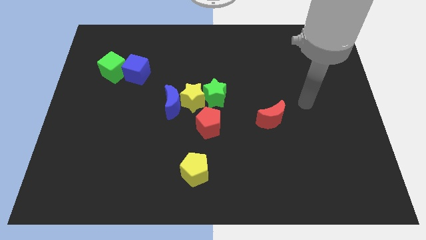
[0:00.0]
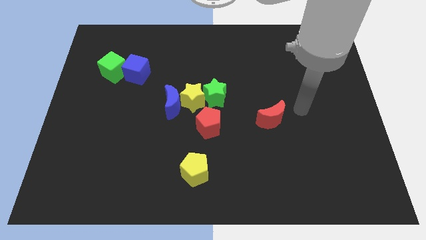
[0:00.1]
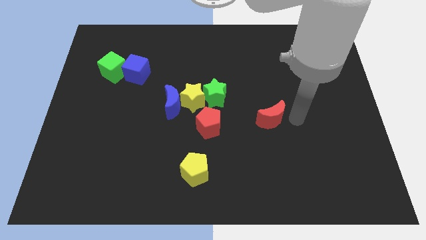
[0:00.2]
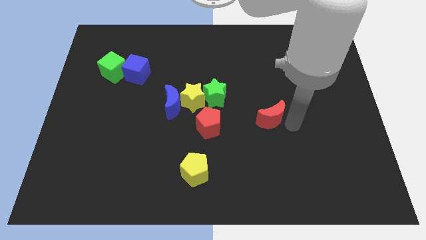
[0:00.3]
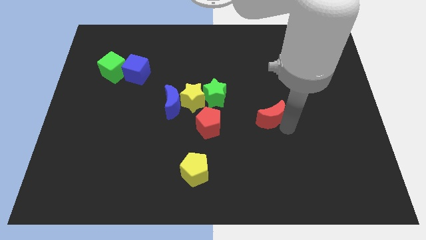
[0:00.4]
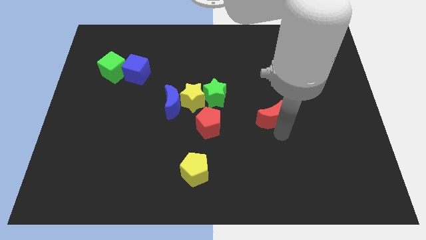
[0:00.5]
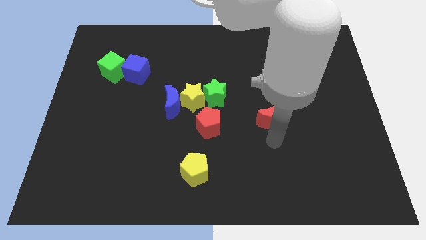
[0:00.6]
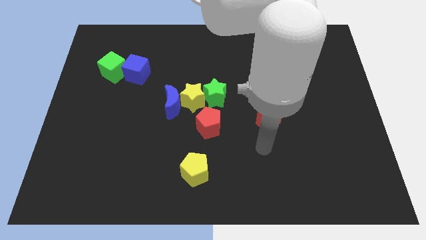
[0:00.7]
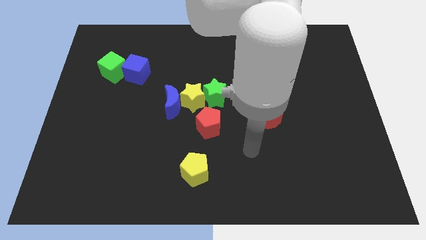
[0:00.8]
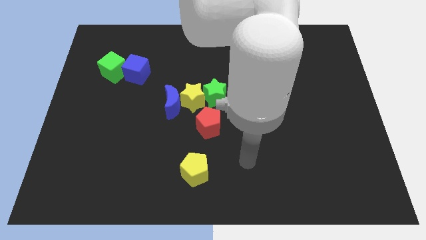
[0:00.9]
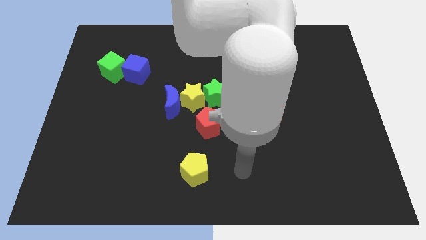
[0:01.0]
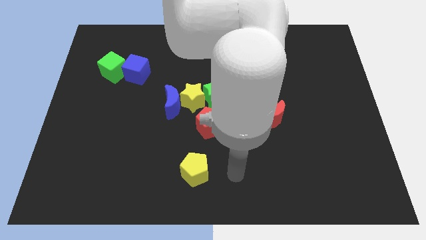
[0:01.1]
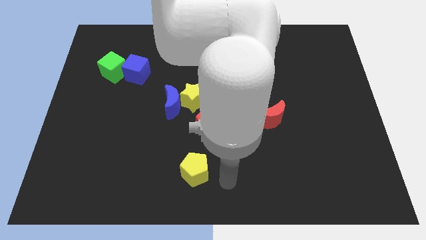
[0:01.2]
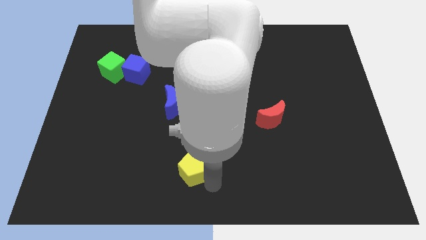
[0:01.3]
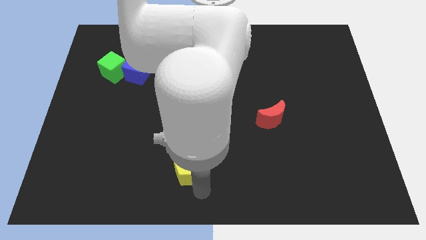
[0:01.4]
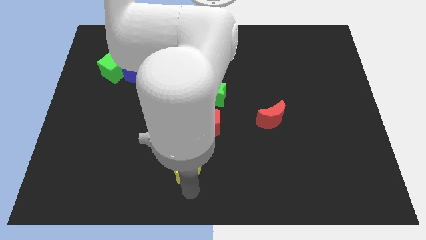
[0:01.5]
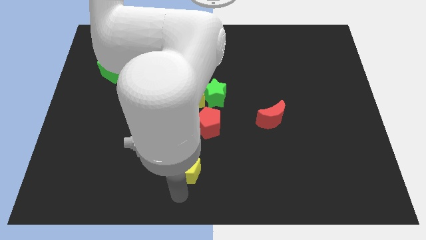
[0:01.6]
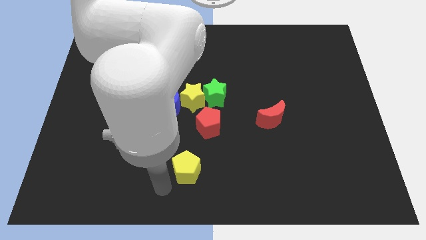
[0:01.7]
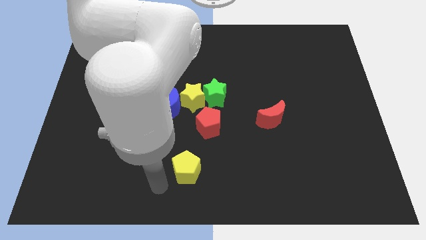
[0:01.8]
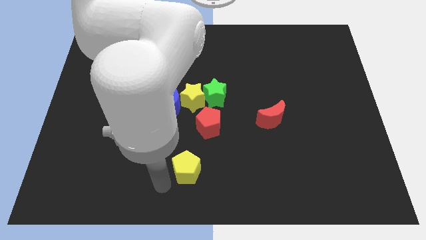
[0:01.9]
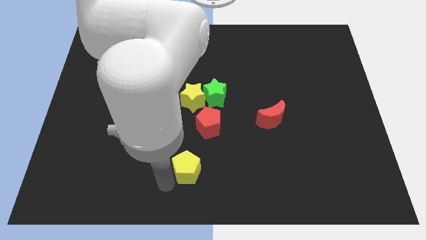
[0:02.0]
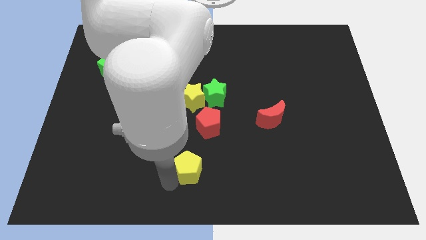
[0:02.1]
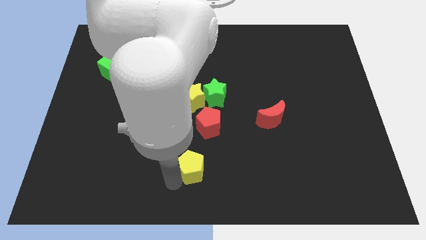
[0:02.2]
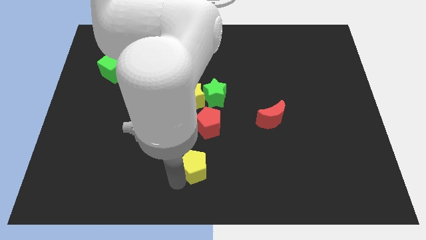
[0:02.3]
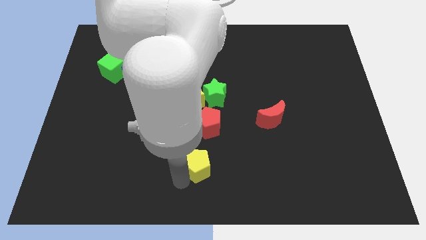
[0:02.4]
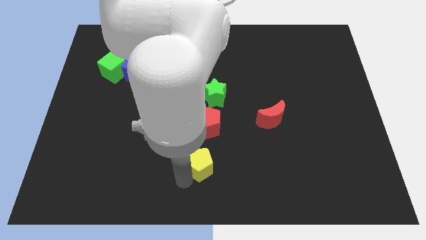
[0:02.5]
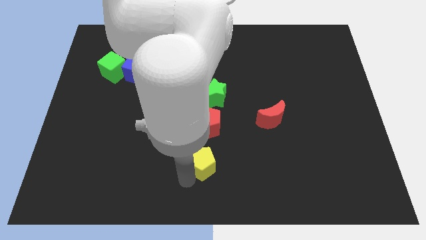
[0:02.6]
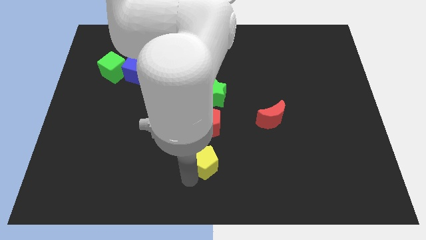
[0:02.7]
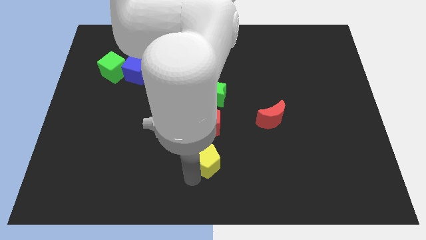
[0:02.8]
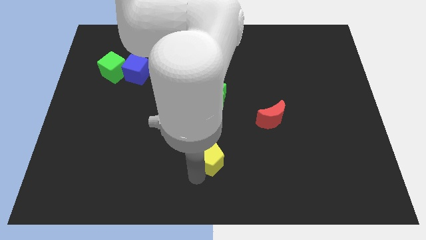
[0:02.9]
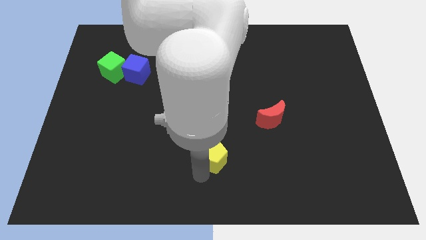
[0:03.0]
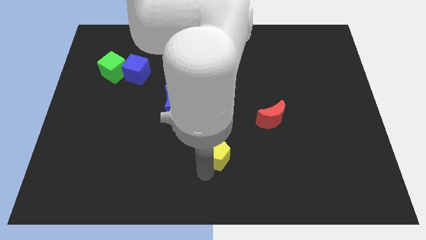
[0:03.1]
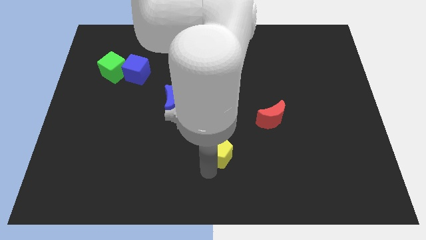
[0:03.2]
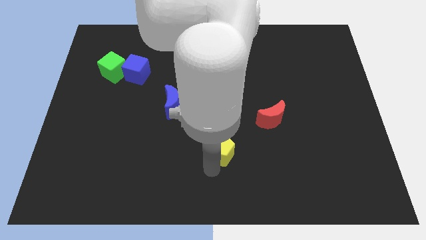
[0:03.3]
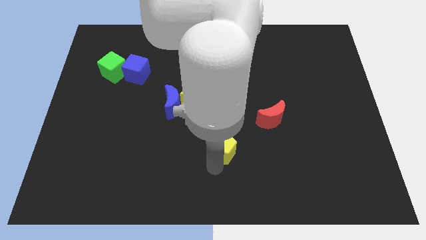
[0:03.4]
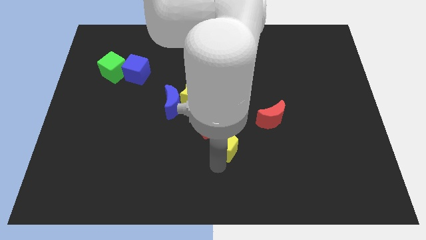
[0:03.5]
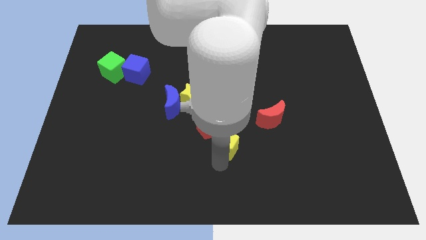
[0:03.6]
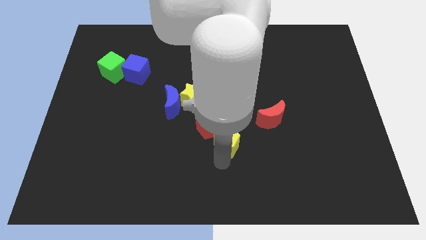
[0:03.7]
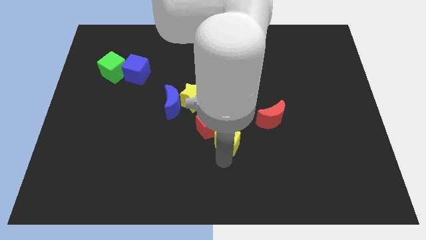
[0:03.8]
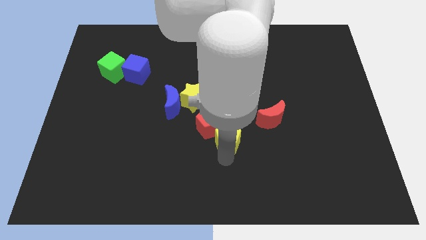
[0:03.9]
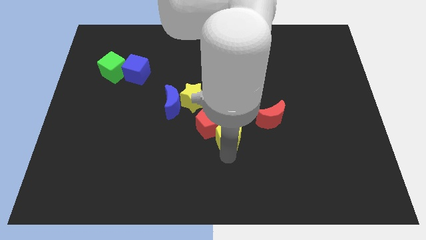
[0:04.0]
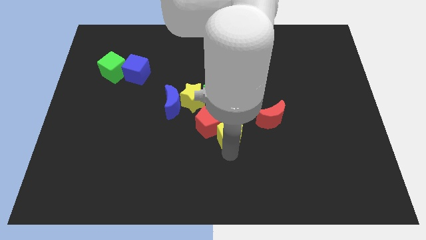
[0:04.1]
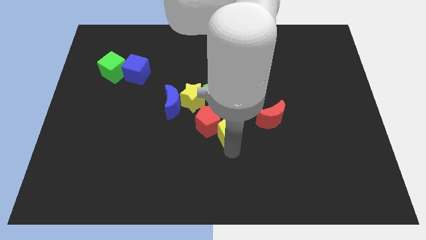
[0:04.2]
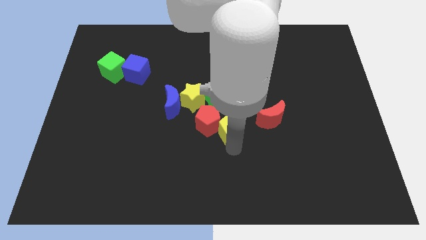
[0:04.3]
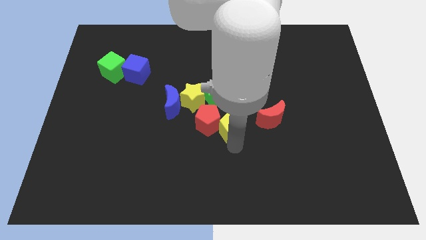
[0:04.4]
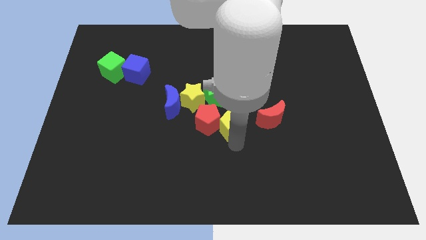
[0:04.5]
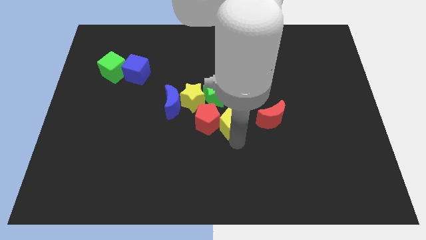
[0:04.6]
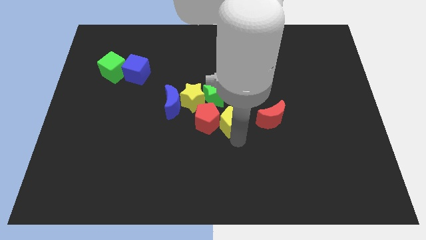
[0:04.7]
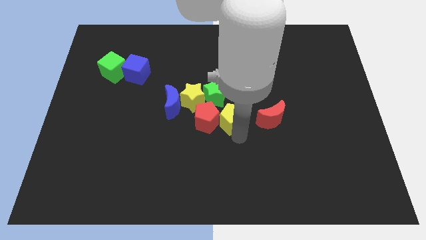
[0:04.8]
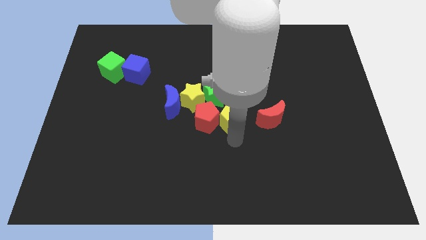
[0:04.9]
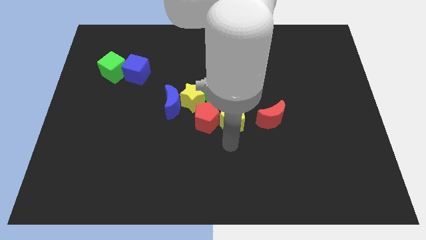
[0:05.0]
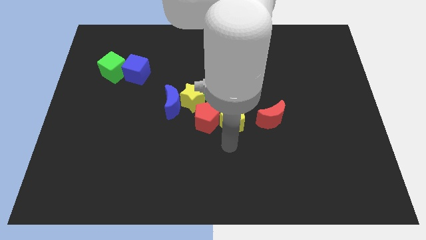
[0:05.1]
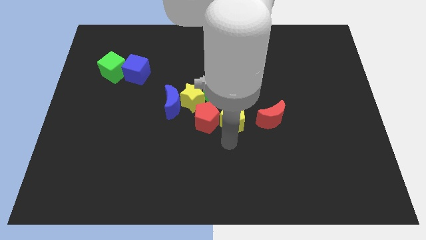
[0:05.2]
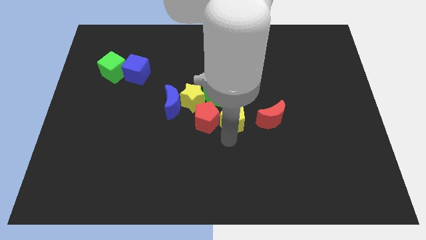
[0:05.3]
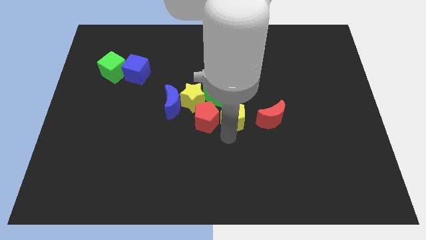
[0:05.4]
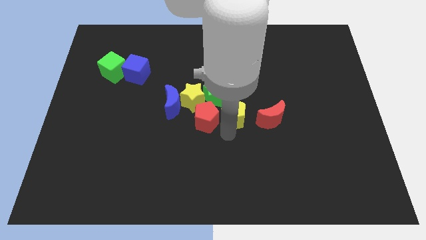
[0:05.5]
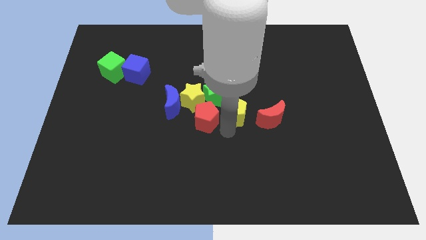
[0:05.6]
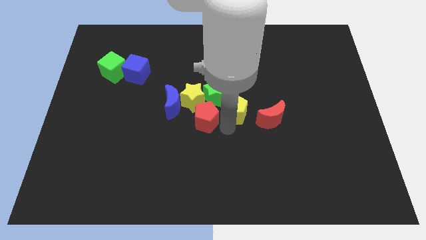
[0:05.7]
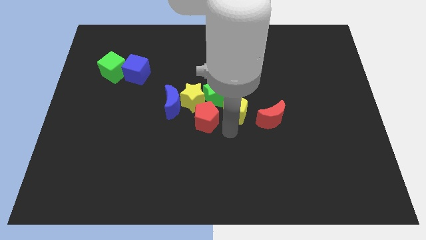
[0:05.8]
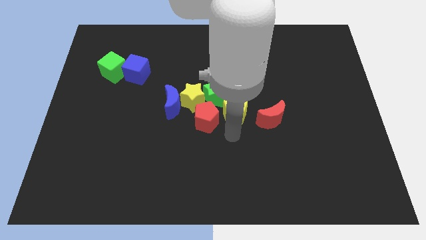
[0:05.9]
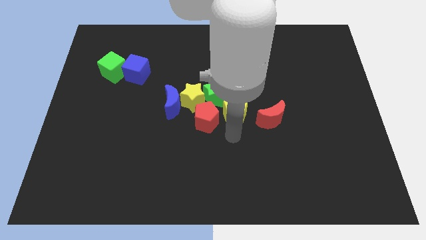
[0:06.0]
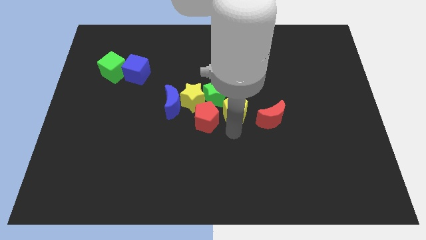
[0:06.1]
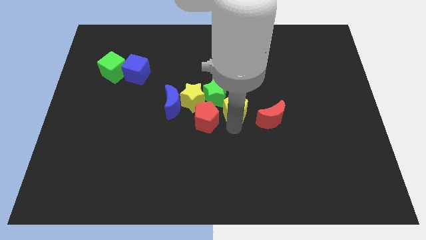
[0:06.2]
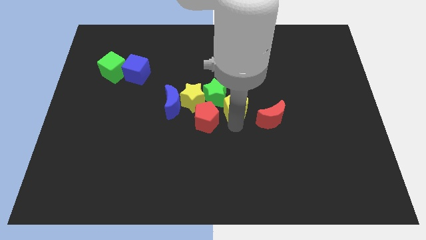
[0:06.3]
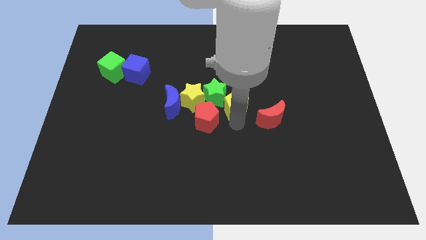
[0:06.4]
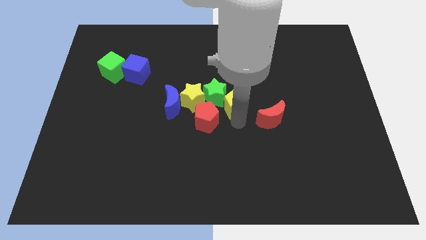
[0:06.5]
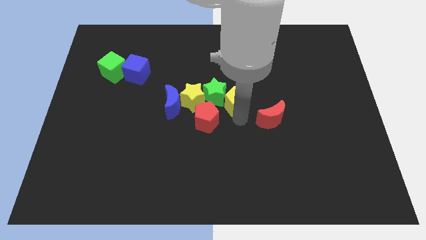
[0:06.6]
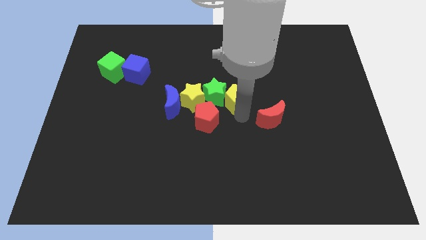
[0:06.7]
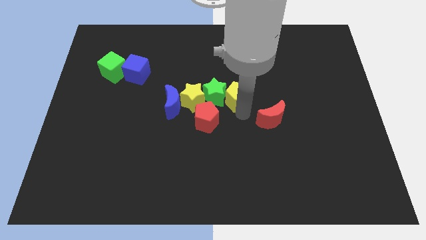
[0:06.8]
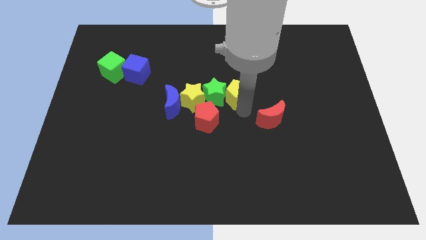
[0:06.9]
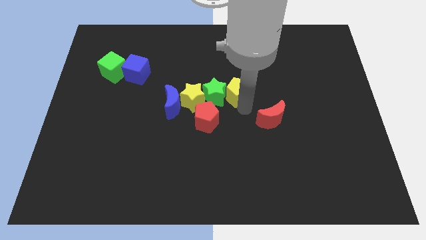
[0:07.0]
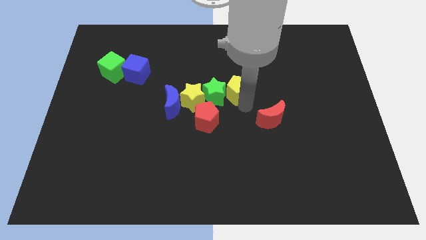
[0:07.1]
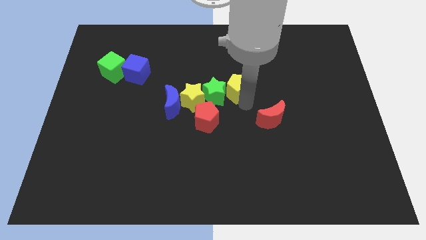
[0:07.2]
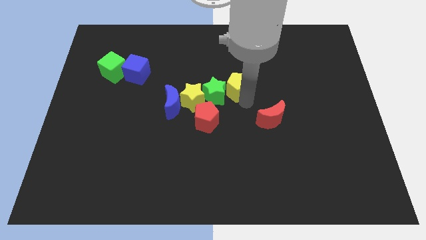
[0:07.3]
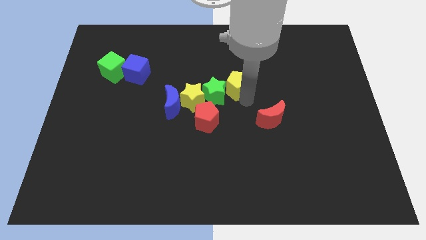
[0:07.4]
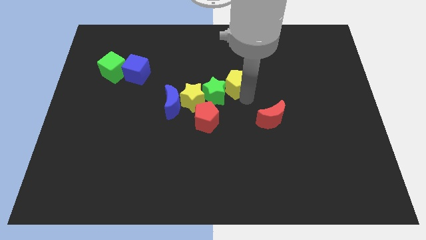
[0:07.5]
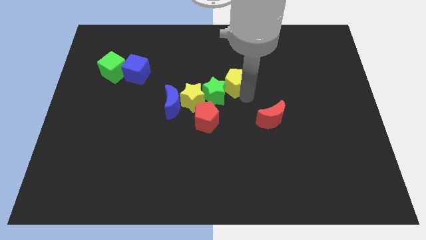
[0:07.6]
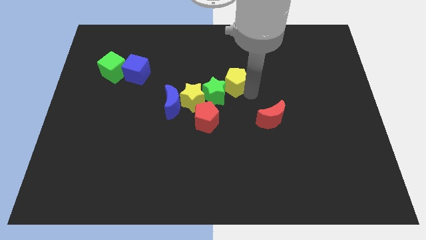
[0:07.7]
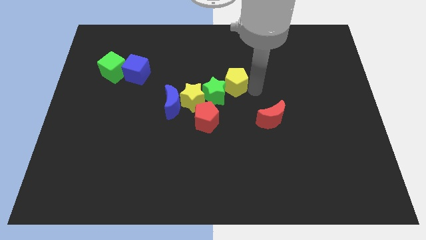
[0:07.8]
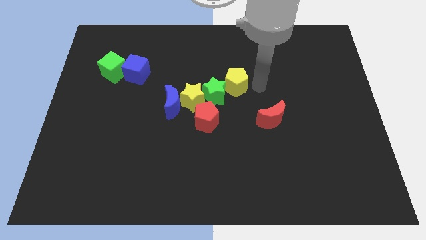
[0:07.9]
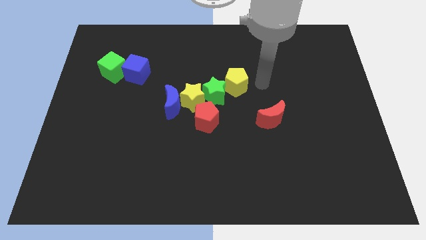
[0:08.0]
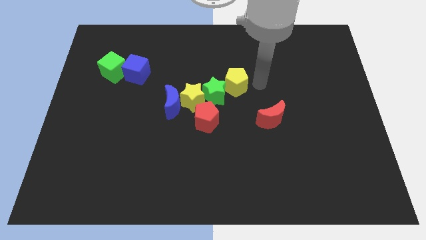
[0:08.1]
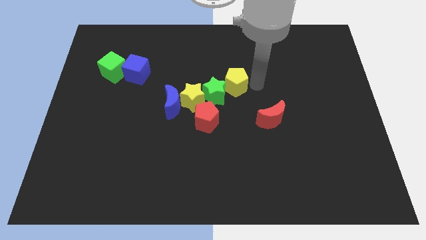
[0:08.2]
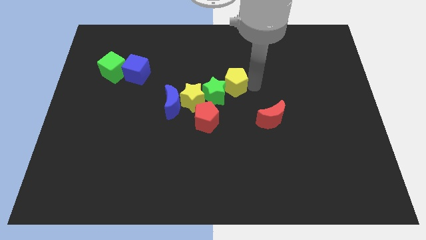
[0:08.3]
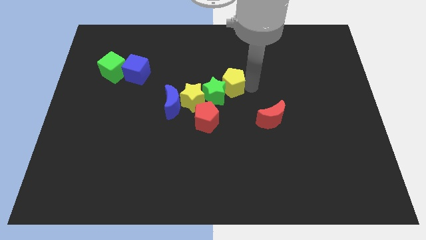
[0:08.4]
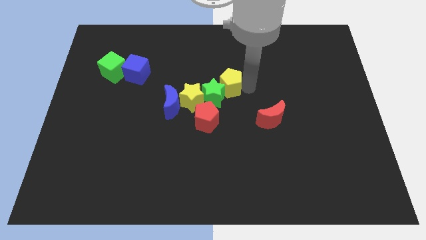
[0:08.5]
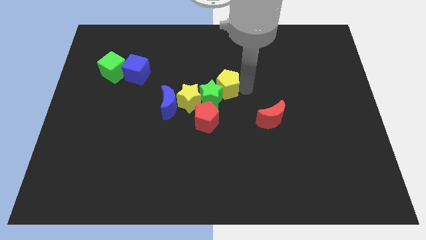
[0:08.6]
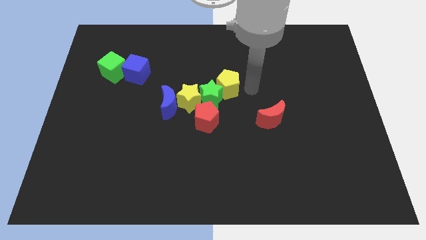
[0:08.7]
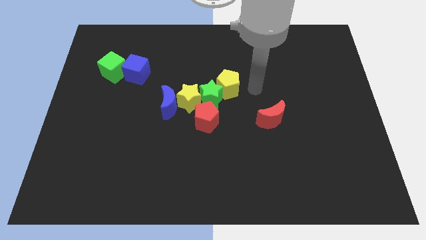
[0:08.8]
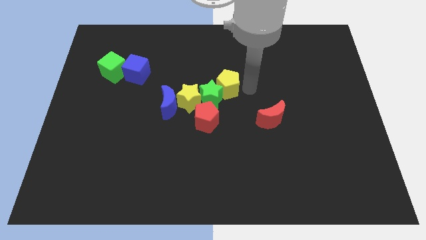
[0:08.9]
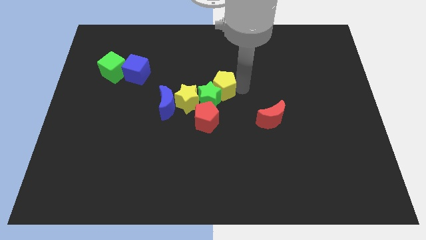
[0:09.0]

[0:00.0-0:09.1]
push the yellow pentagon above the red pentagon
